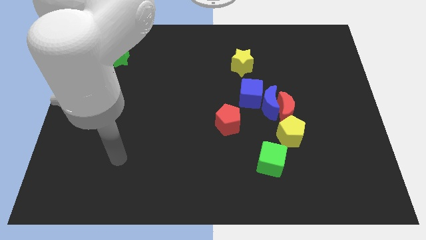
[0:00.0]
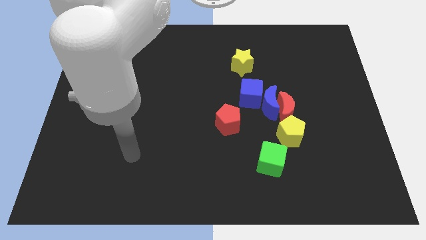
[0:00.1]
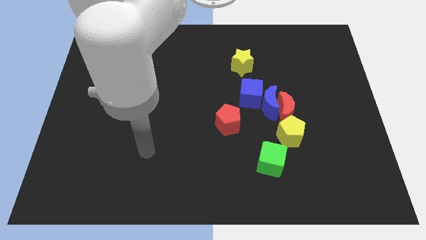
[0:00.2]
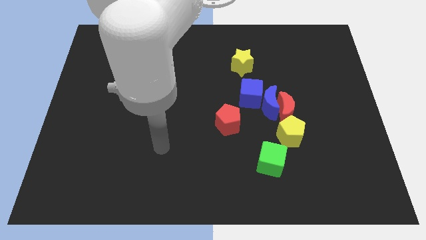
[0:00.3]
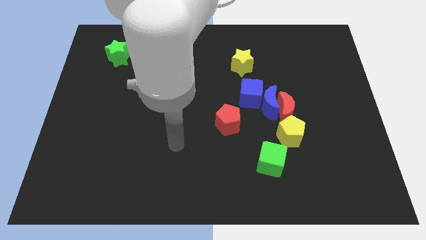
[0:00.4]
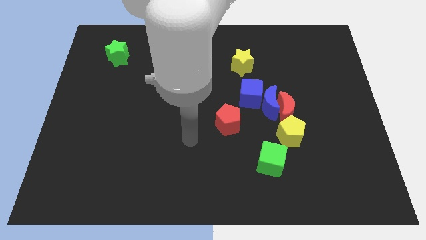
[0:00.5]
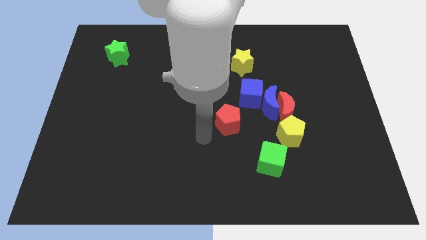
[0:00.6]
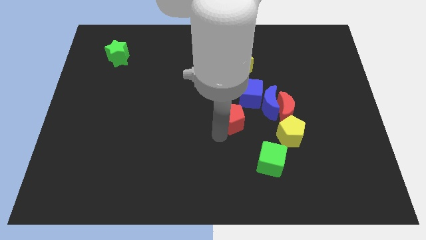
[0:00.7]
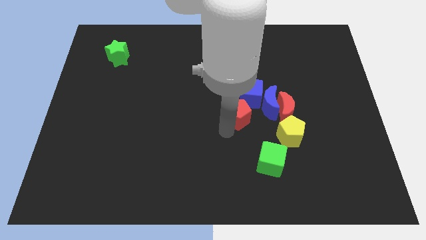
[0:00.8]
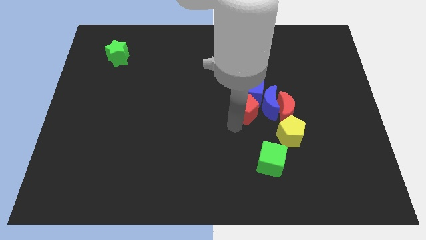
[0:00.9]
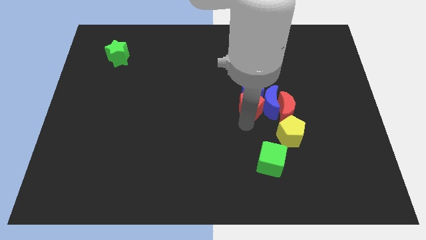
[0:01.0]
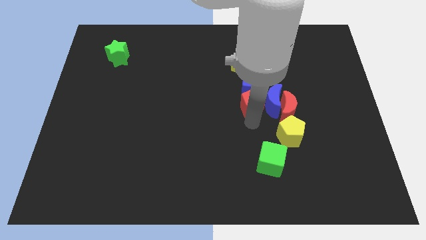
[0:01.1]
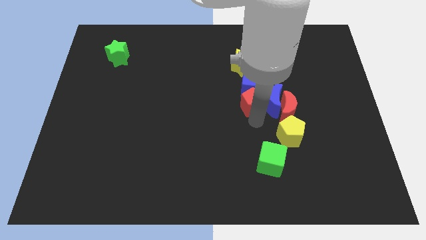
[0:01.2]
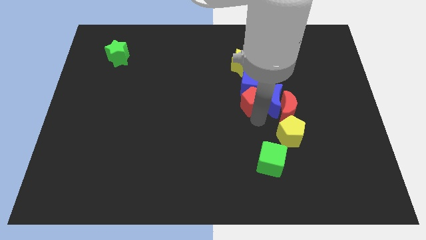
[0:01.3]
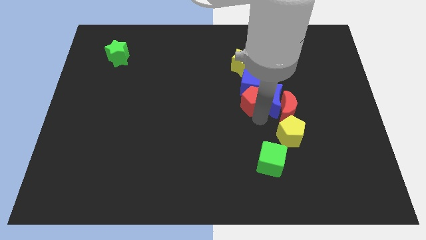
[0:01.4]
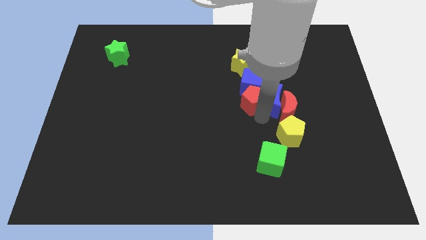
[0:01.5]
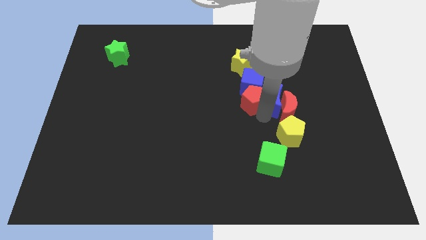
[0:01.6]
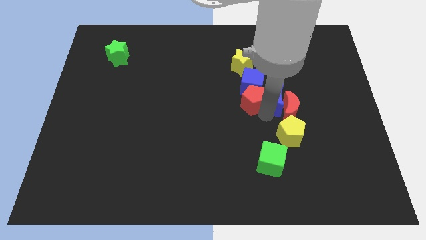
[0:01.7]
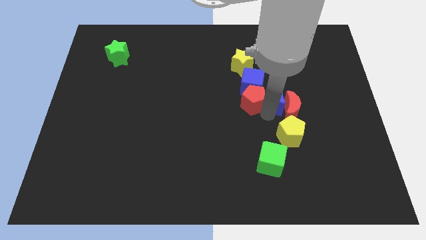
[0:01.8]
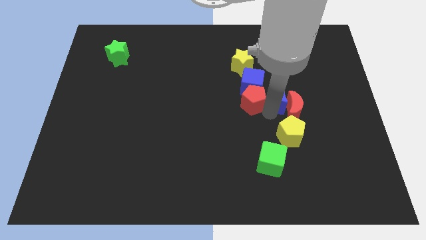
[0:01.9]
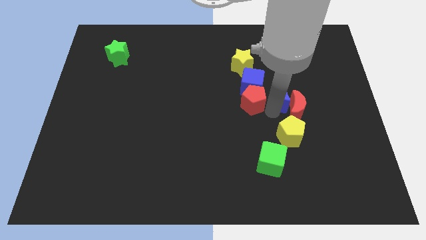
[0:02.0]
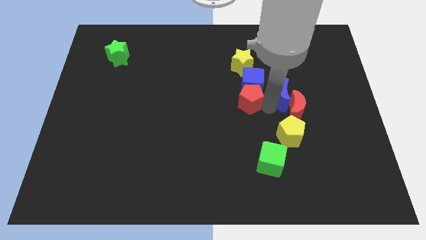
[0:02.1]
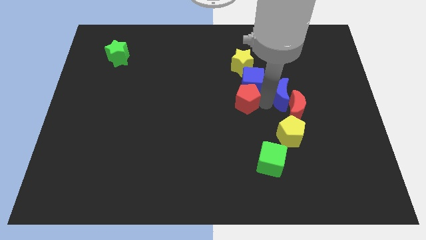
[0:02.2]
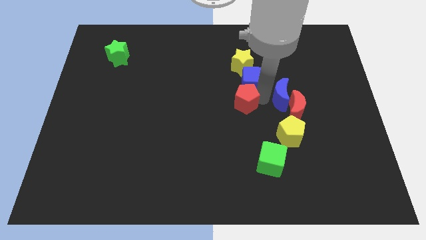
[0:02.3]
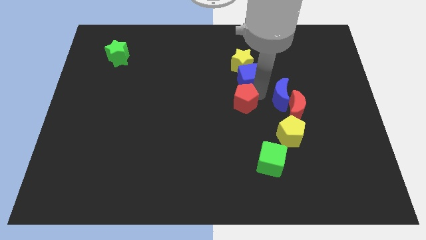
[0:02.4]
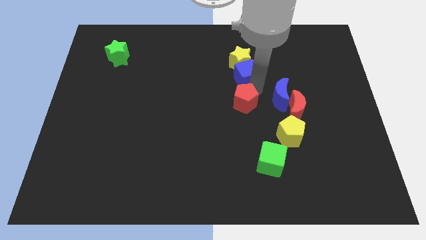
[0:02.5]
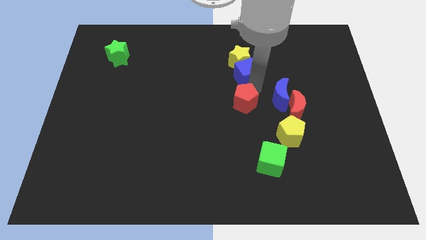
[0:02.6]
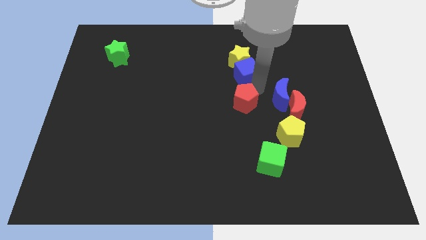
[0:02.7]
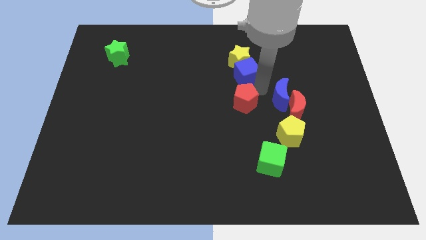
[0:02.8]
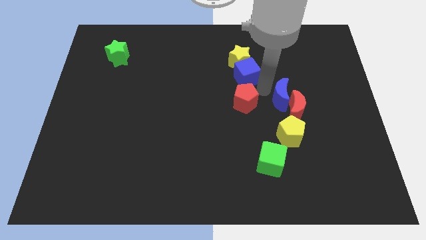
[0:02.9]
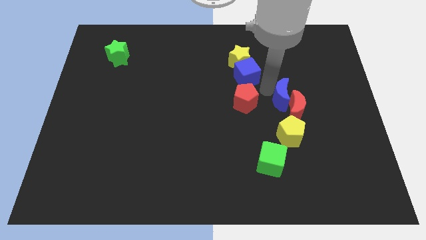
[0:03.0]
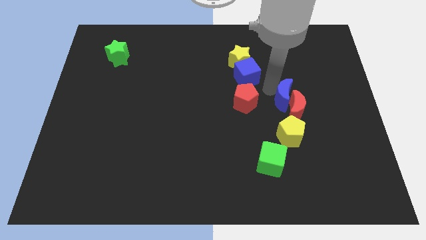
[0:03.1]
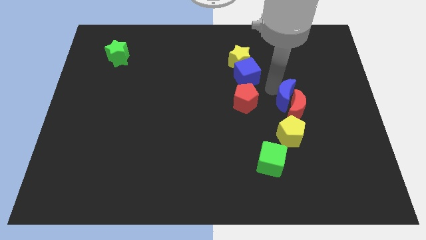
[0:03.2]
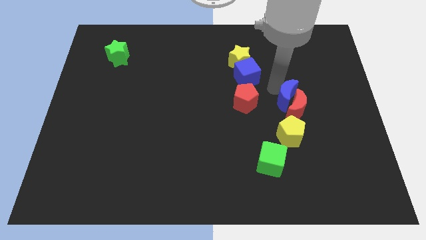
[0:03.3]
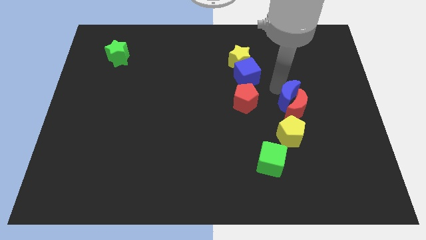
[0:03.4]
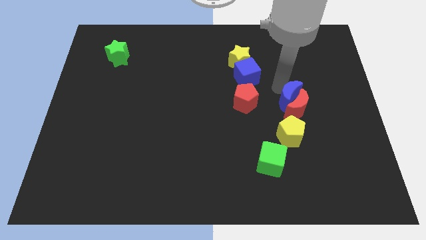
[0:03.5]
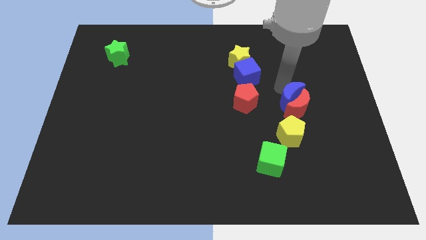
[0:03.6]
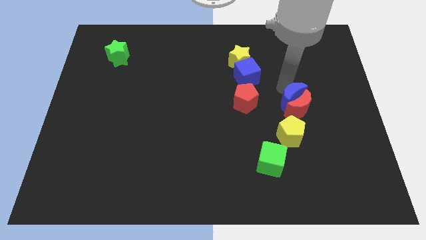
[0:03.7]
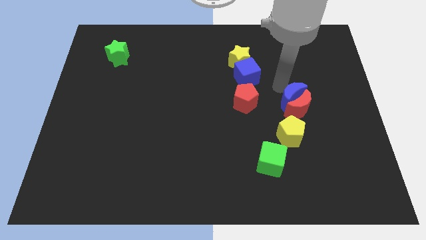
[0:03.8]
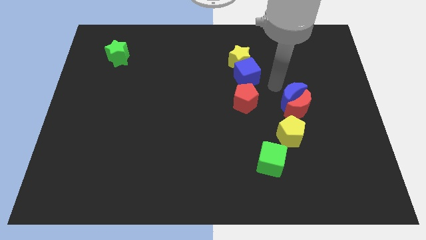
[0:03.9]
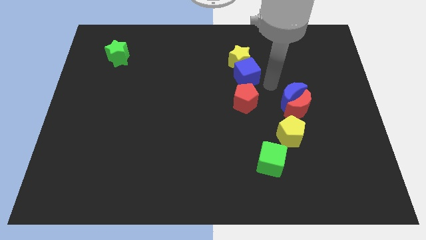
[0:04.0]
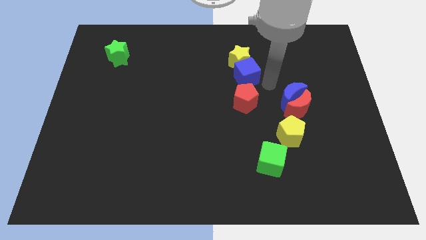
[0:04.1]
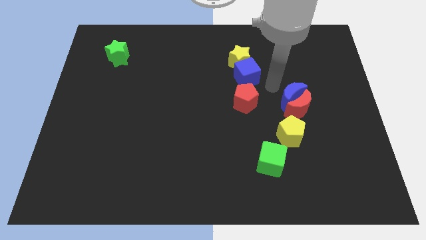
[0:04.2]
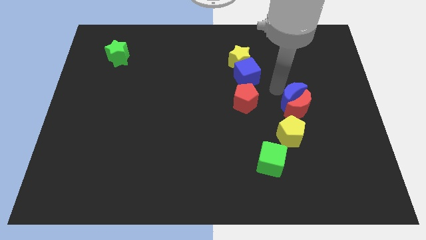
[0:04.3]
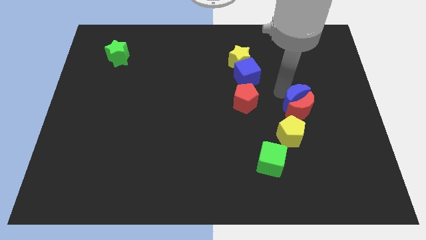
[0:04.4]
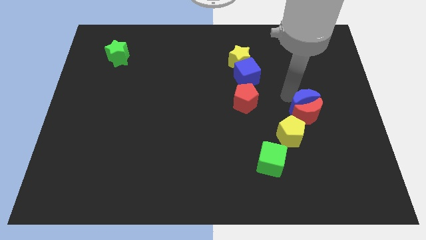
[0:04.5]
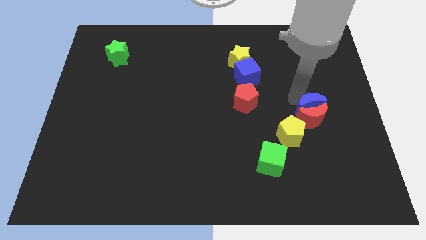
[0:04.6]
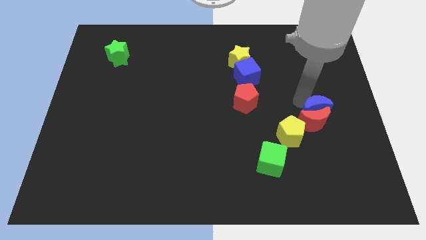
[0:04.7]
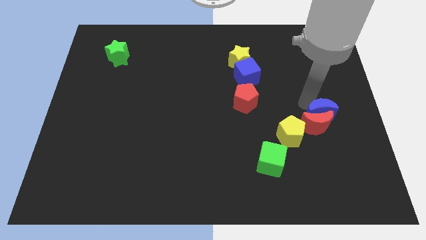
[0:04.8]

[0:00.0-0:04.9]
slightly push the blue moon diagonally down and to the right

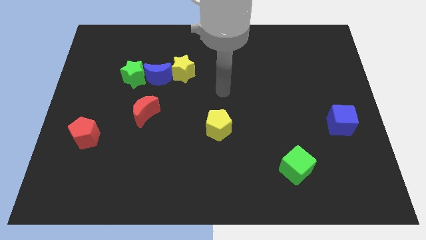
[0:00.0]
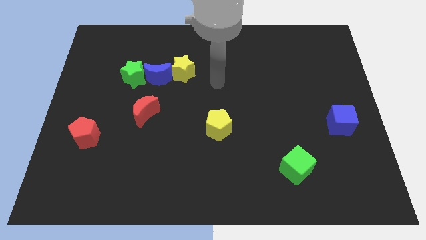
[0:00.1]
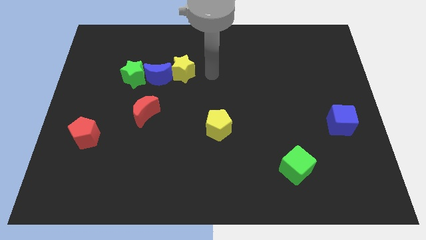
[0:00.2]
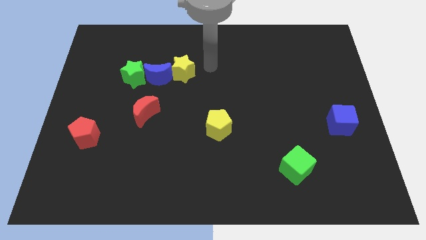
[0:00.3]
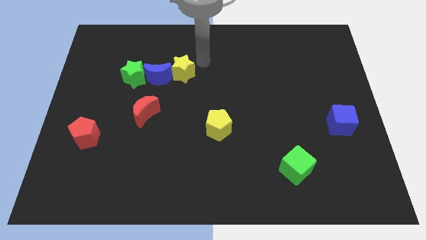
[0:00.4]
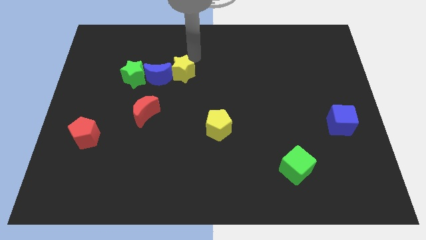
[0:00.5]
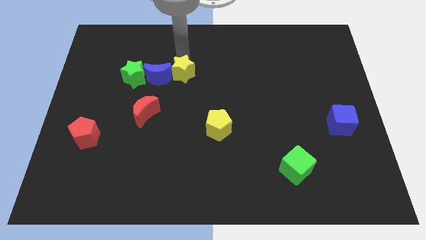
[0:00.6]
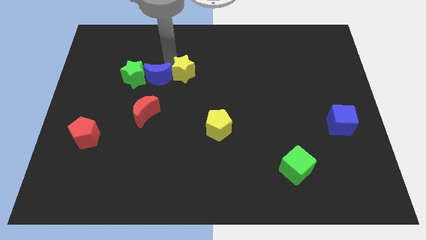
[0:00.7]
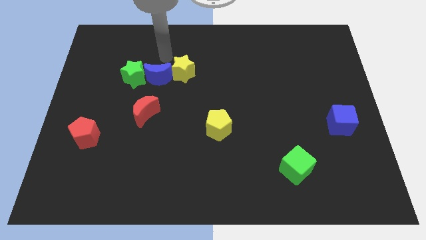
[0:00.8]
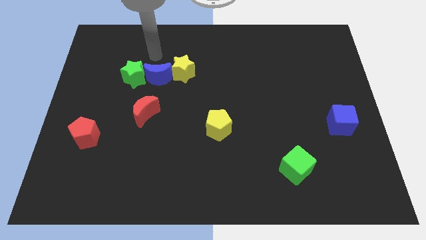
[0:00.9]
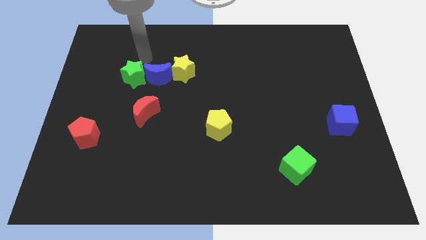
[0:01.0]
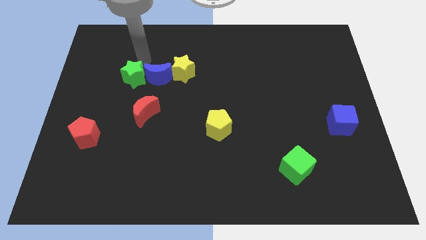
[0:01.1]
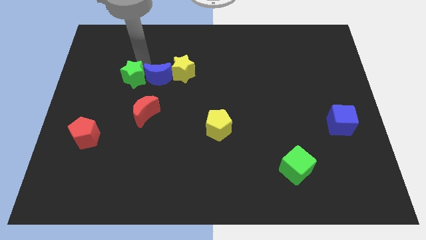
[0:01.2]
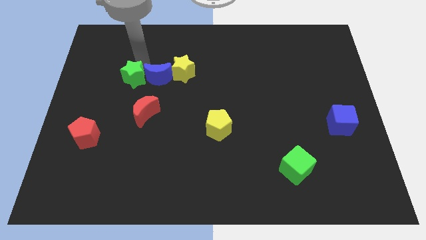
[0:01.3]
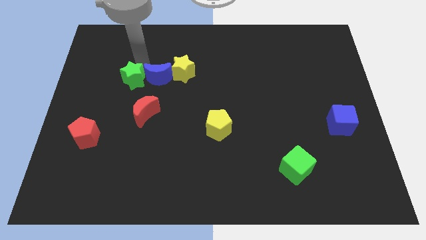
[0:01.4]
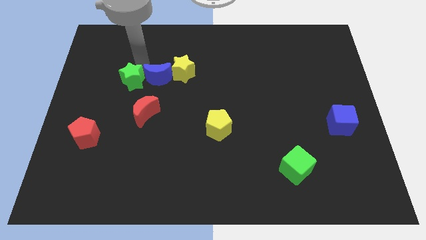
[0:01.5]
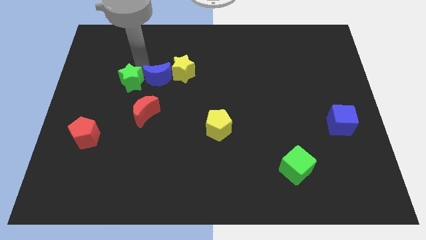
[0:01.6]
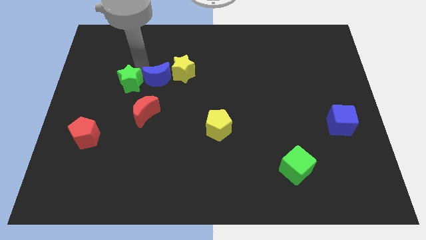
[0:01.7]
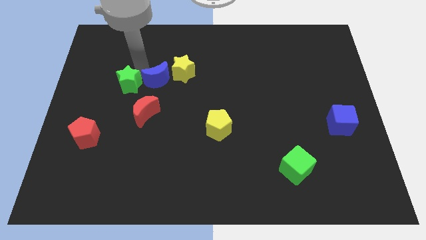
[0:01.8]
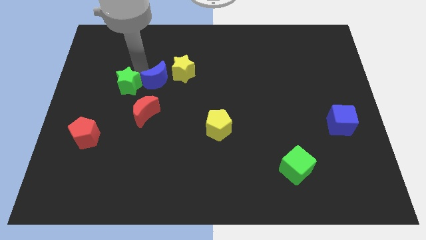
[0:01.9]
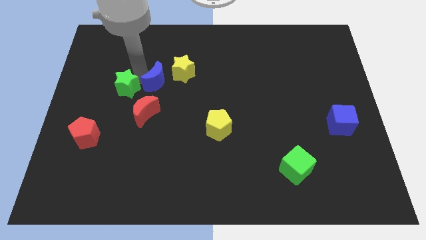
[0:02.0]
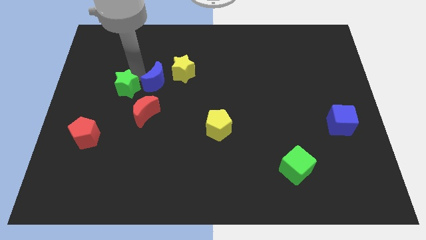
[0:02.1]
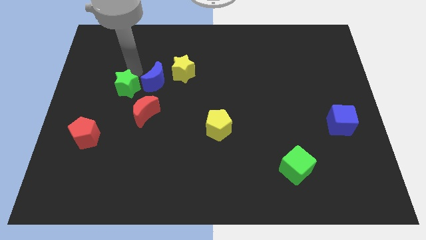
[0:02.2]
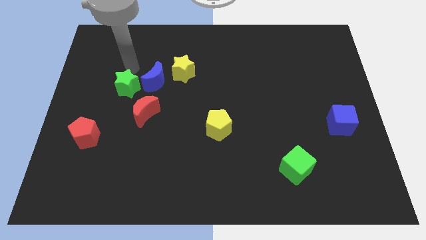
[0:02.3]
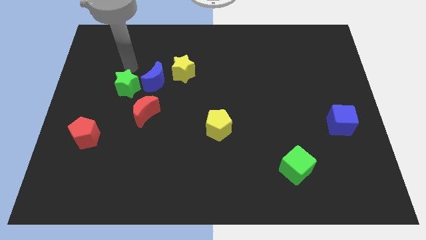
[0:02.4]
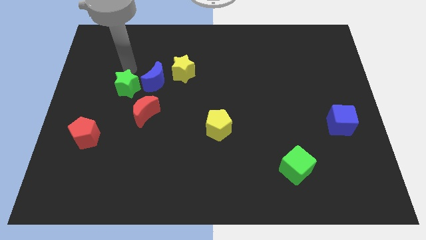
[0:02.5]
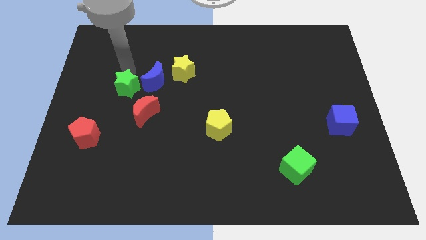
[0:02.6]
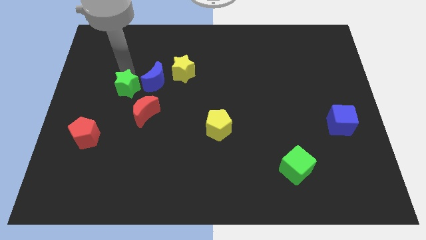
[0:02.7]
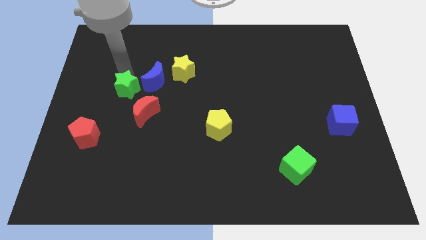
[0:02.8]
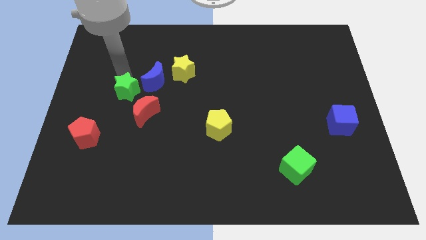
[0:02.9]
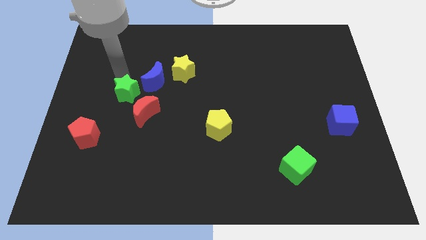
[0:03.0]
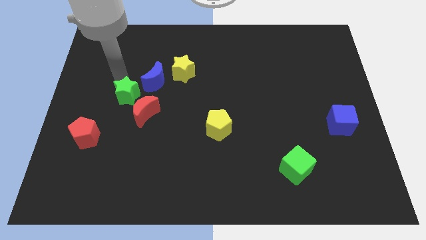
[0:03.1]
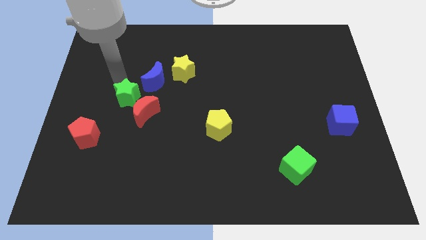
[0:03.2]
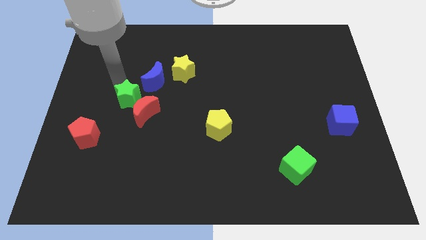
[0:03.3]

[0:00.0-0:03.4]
push the green star down a little bit
